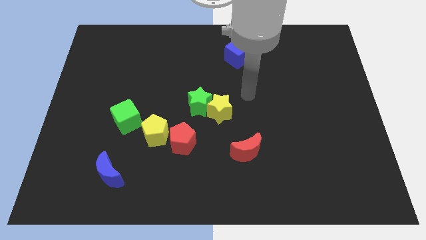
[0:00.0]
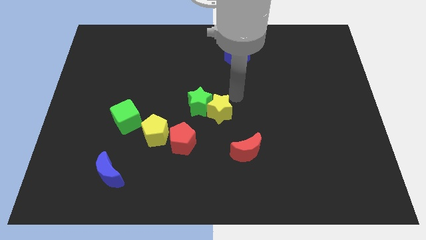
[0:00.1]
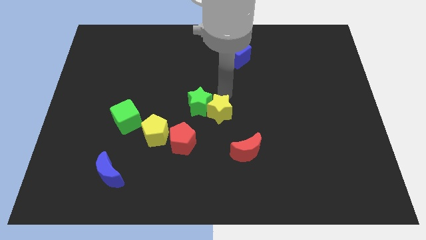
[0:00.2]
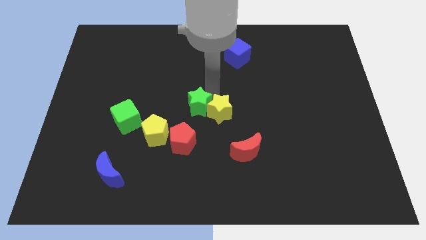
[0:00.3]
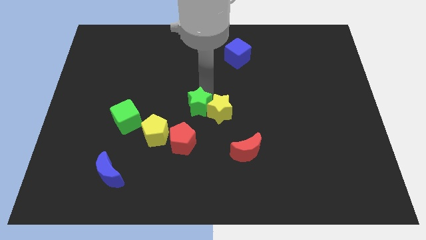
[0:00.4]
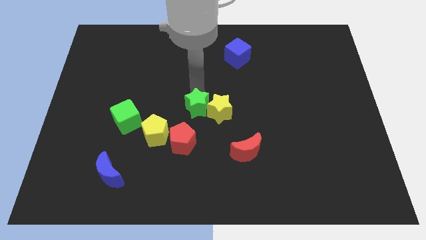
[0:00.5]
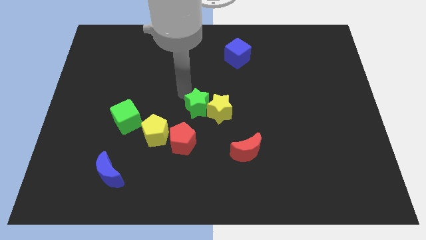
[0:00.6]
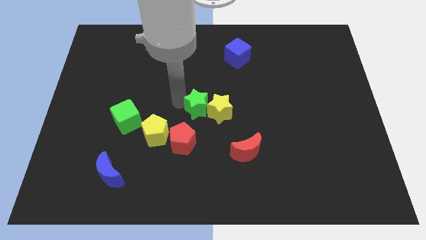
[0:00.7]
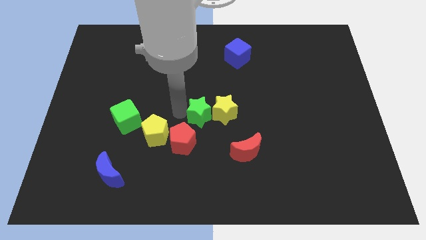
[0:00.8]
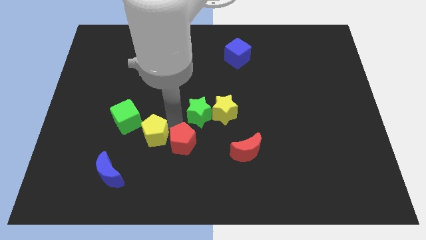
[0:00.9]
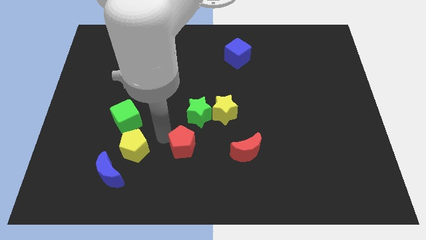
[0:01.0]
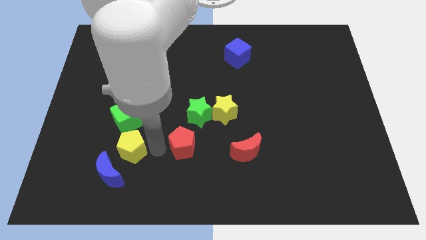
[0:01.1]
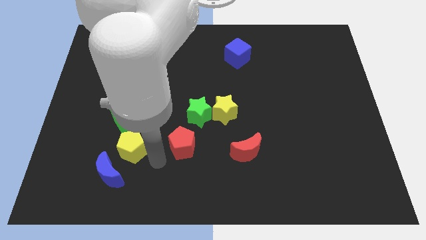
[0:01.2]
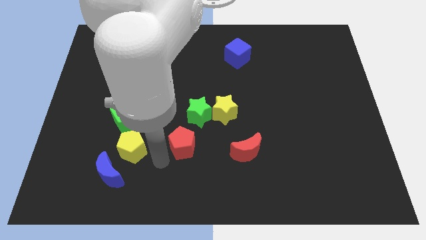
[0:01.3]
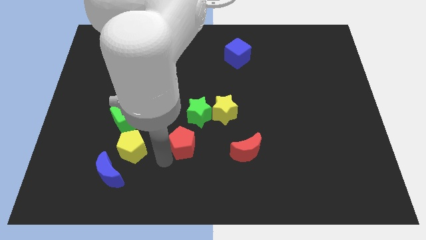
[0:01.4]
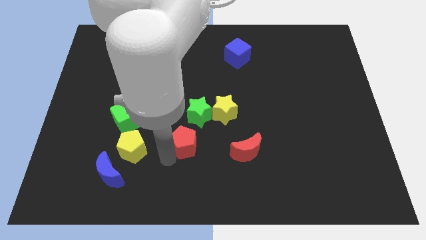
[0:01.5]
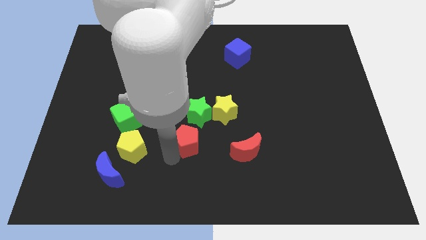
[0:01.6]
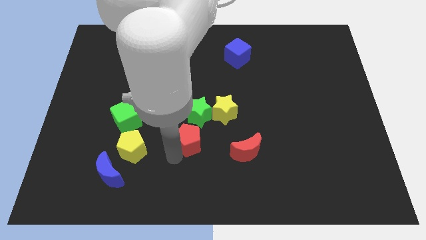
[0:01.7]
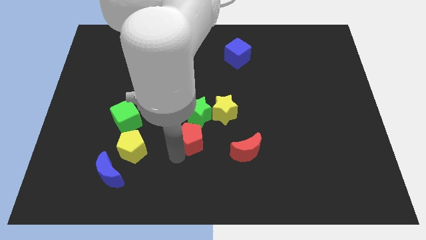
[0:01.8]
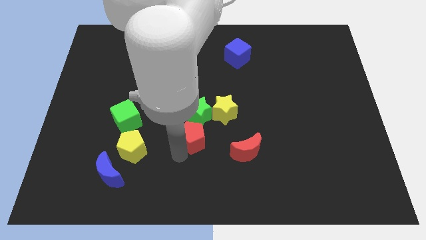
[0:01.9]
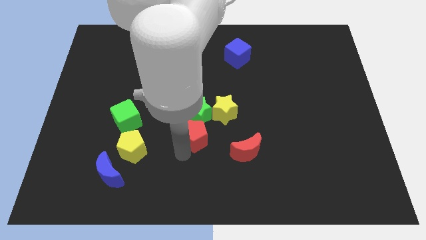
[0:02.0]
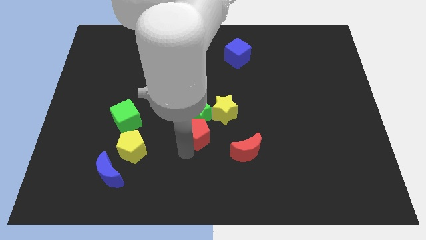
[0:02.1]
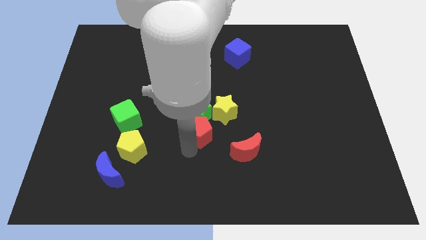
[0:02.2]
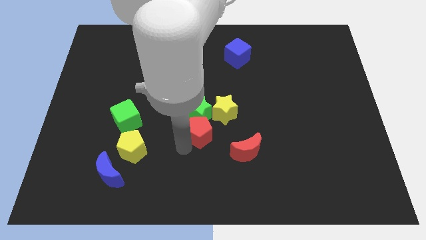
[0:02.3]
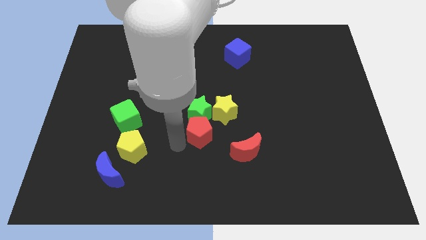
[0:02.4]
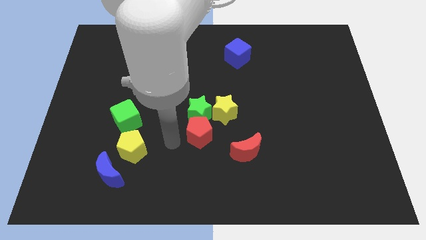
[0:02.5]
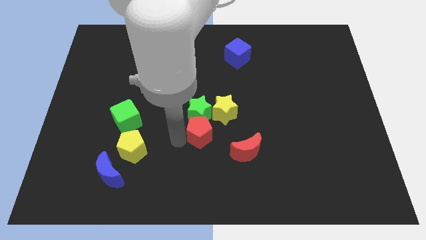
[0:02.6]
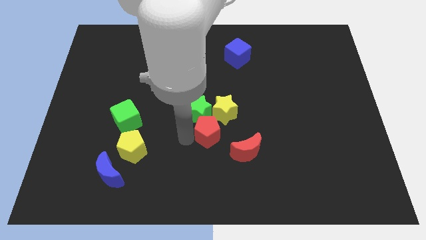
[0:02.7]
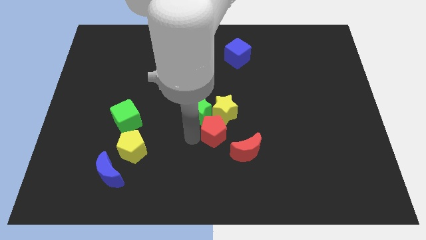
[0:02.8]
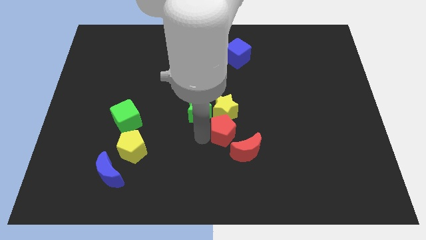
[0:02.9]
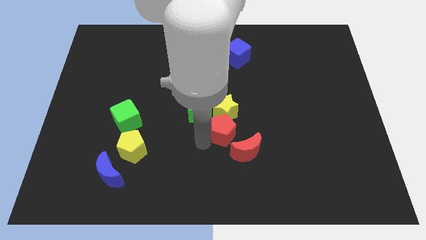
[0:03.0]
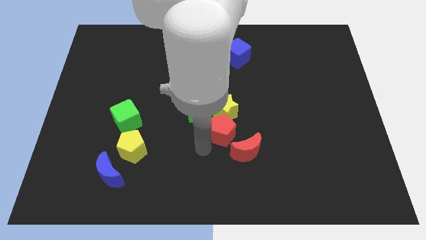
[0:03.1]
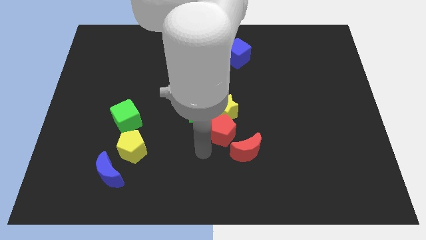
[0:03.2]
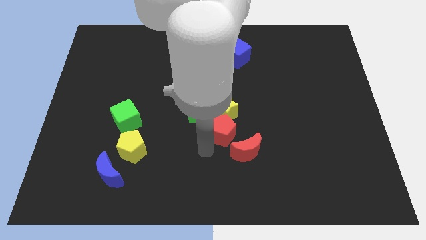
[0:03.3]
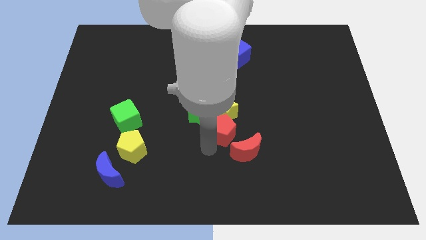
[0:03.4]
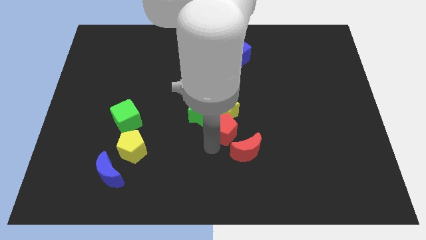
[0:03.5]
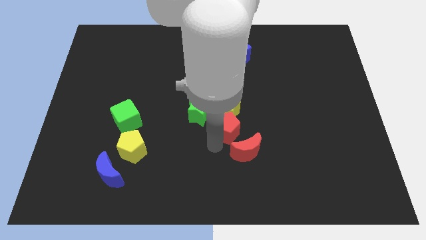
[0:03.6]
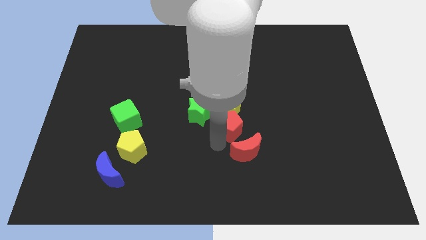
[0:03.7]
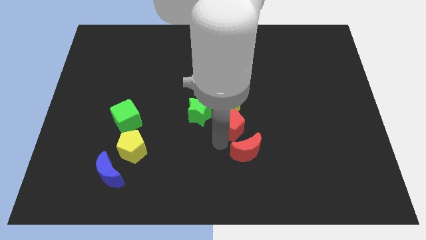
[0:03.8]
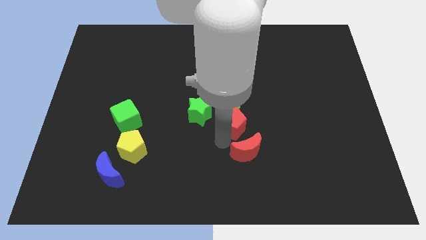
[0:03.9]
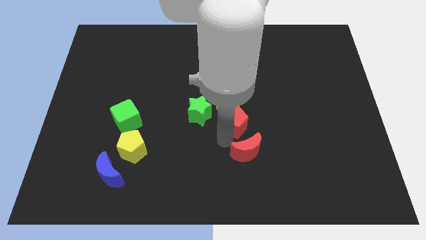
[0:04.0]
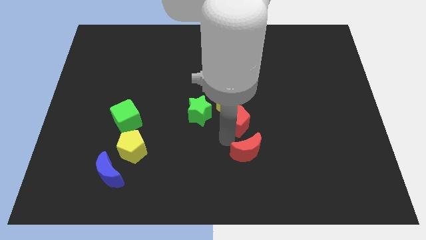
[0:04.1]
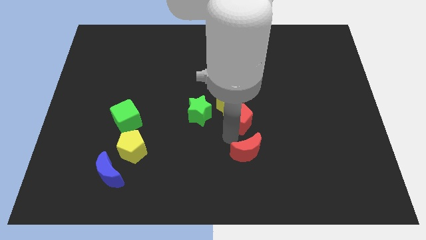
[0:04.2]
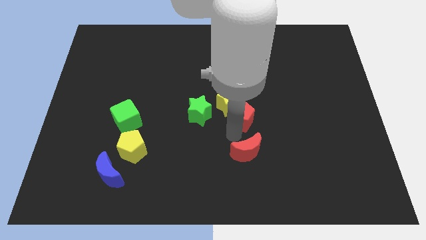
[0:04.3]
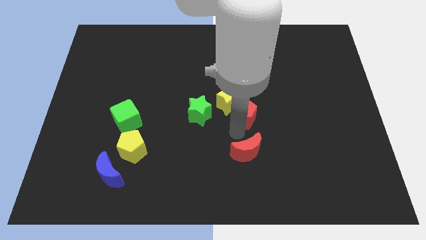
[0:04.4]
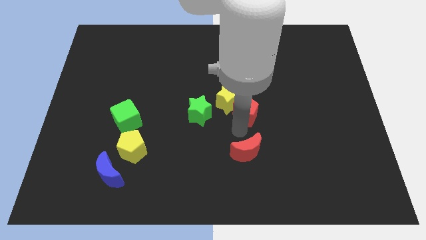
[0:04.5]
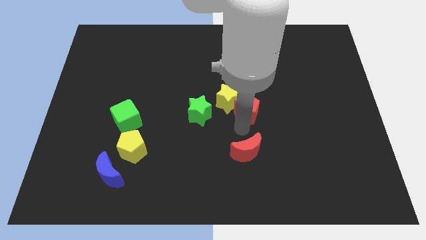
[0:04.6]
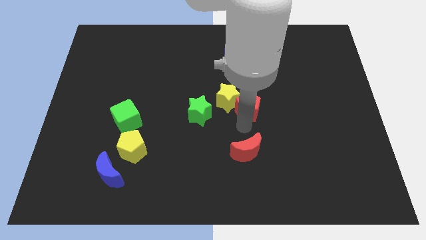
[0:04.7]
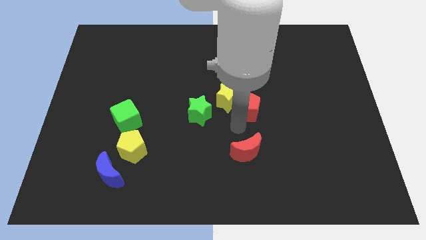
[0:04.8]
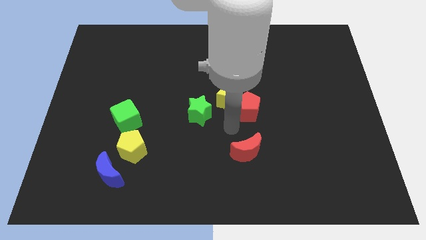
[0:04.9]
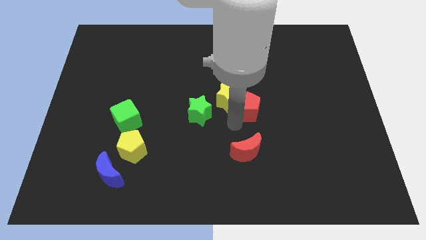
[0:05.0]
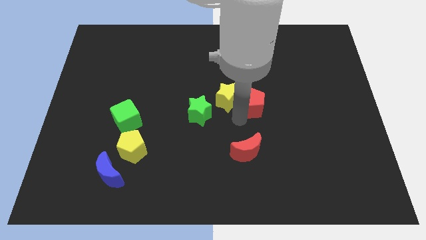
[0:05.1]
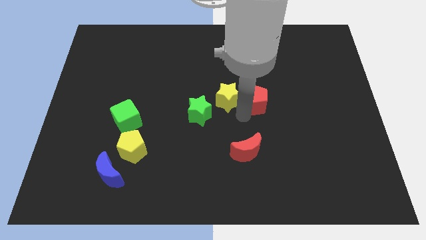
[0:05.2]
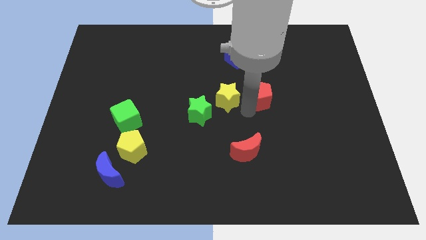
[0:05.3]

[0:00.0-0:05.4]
move the red pentagon upwards and then right

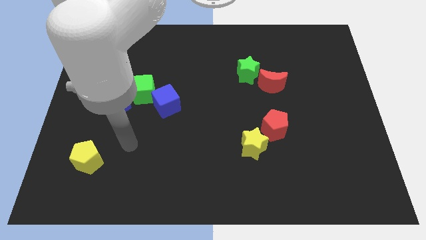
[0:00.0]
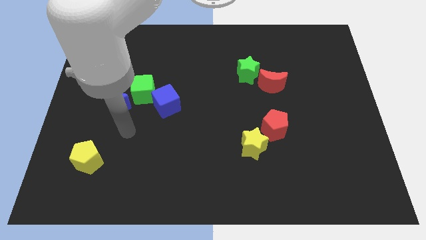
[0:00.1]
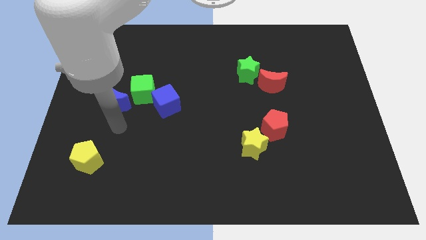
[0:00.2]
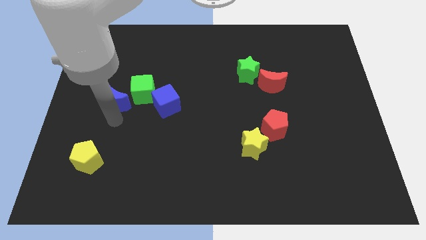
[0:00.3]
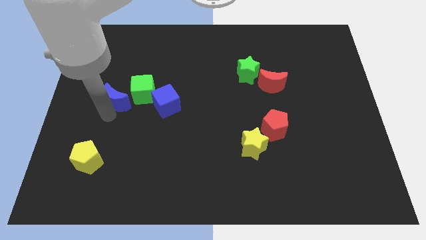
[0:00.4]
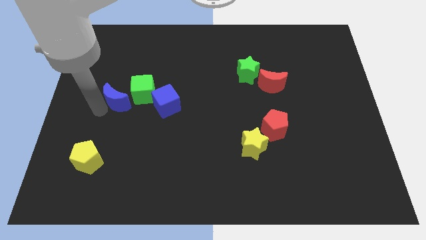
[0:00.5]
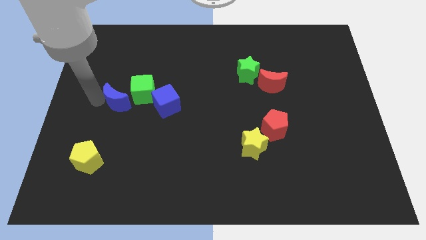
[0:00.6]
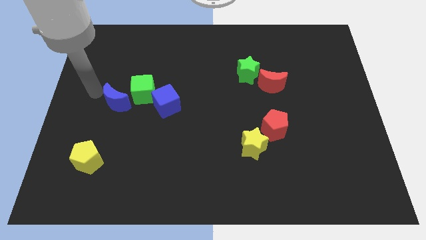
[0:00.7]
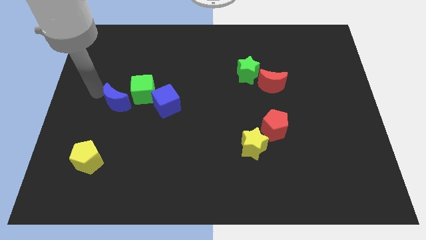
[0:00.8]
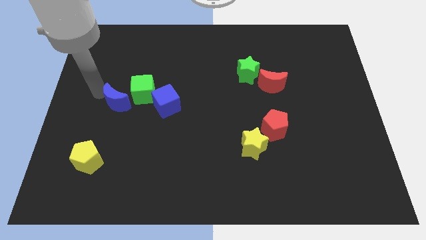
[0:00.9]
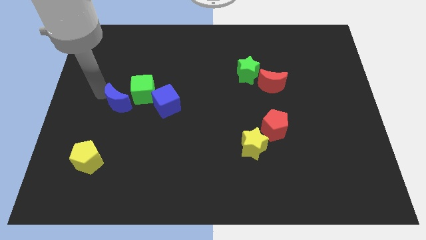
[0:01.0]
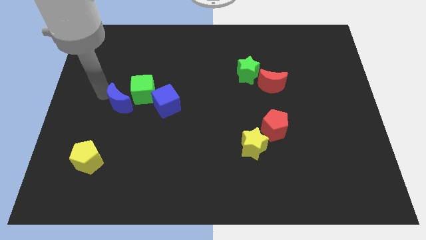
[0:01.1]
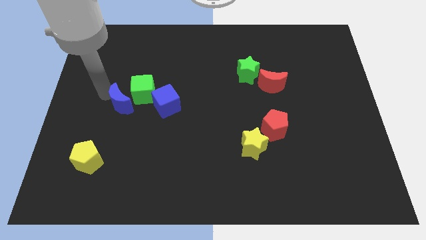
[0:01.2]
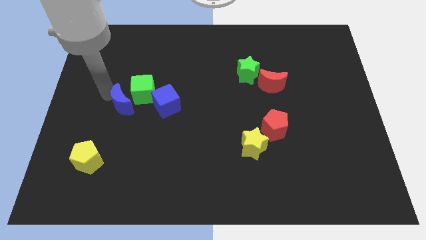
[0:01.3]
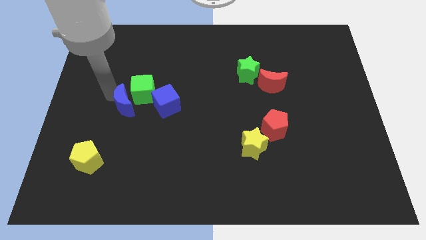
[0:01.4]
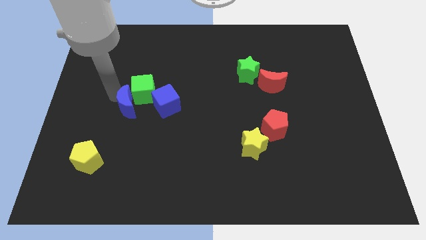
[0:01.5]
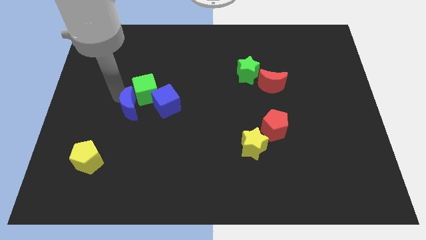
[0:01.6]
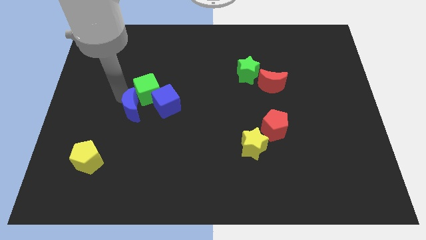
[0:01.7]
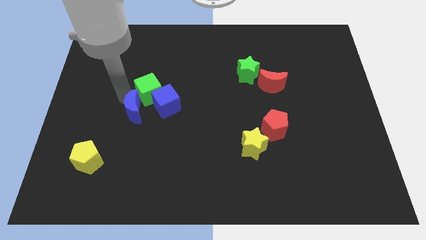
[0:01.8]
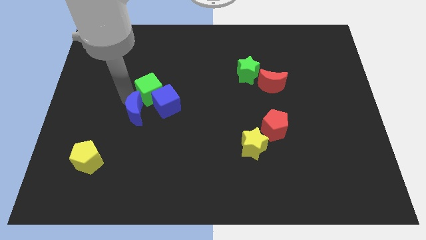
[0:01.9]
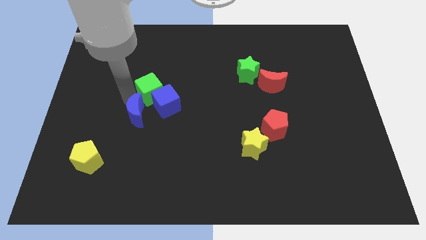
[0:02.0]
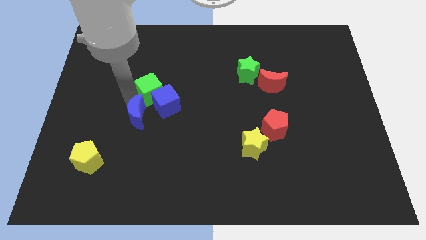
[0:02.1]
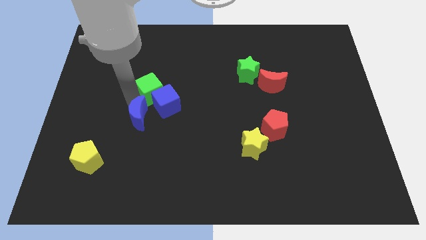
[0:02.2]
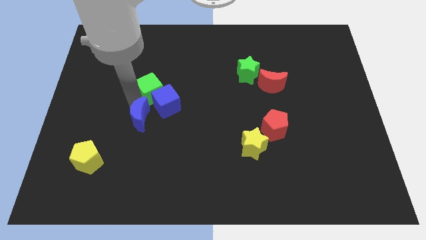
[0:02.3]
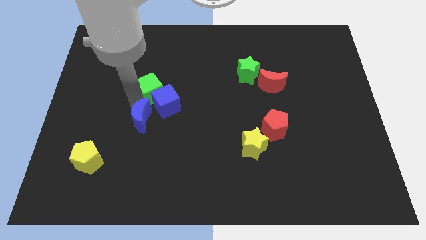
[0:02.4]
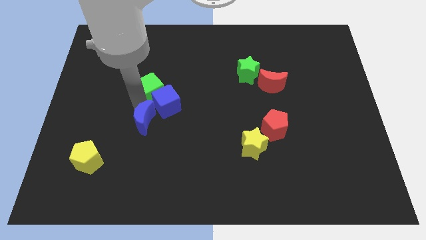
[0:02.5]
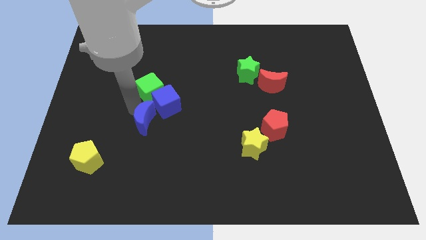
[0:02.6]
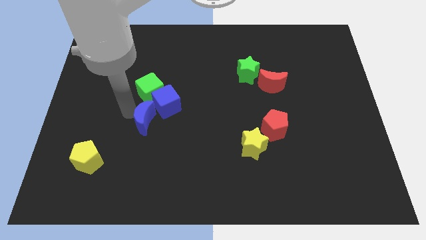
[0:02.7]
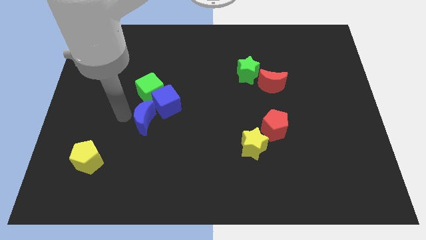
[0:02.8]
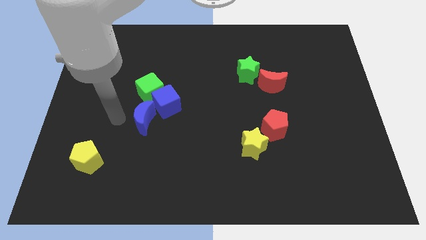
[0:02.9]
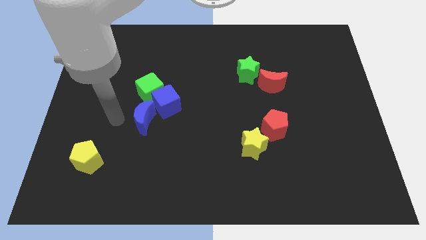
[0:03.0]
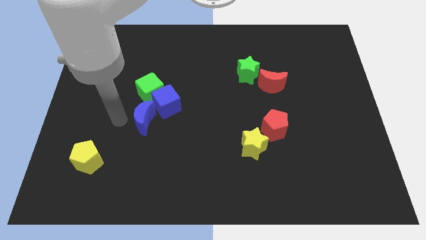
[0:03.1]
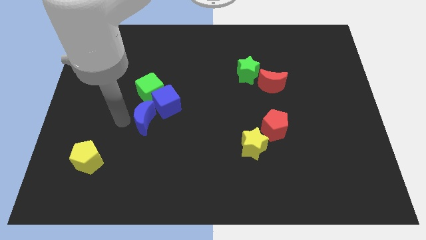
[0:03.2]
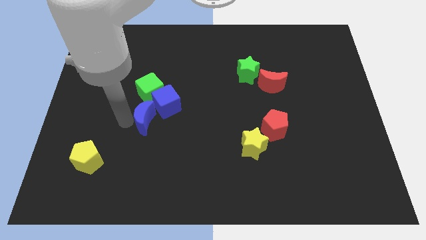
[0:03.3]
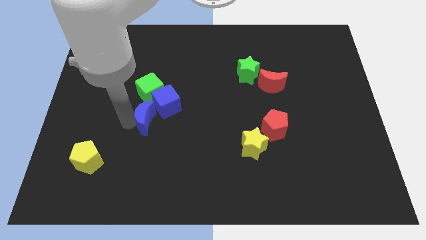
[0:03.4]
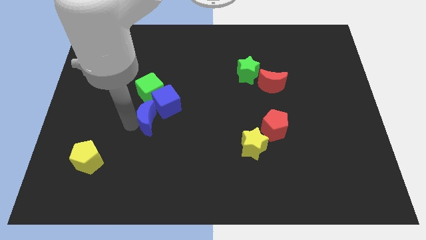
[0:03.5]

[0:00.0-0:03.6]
slide the blue moon somewhat to the right
